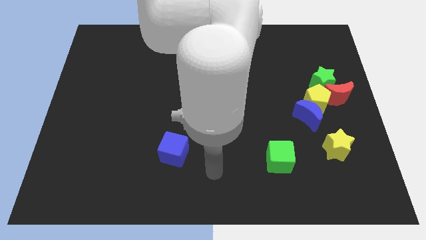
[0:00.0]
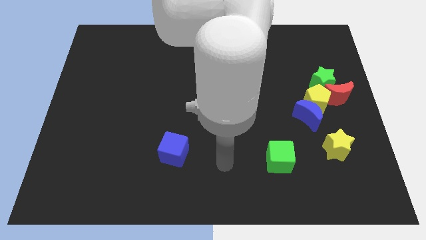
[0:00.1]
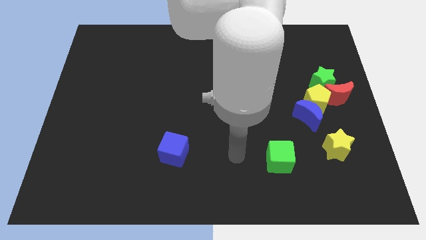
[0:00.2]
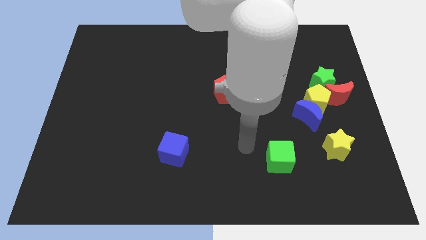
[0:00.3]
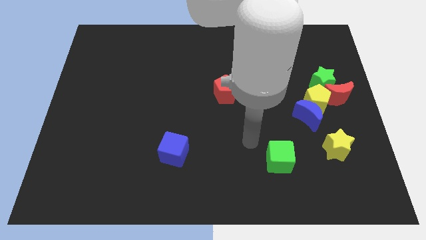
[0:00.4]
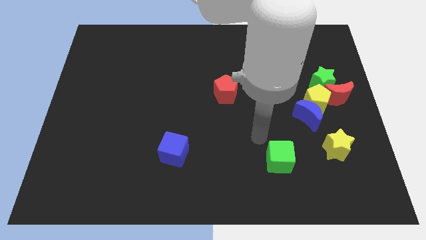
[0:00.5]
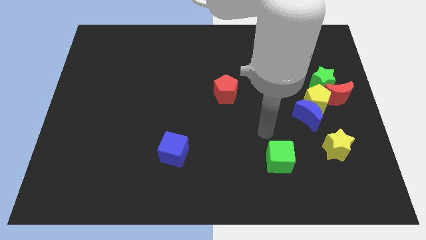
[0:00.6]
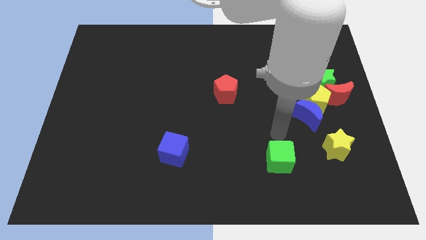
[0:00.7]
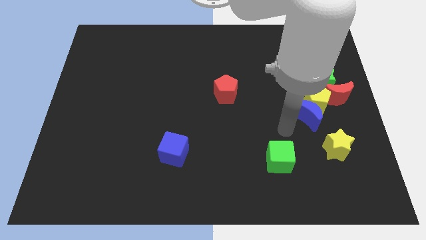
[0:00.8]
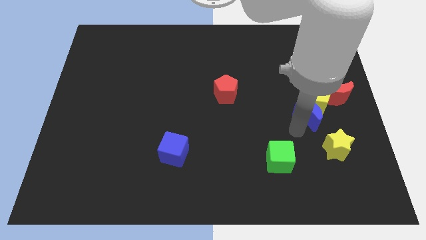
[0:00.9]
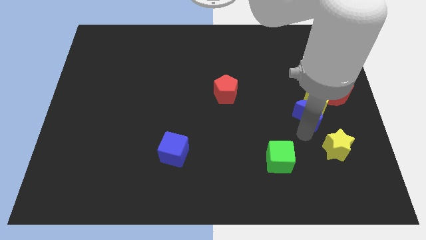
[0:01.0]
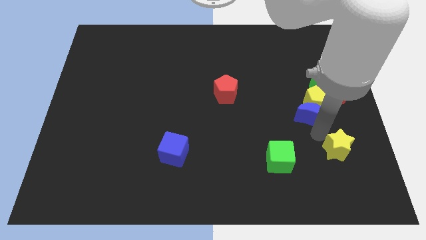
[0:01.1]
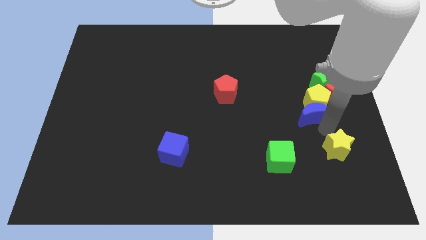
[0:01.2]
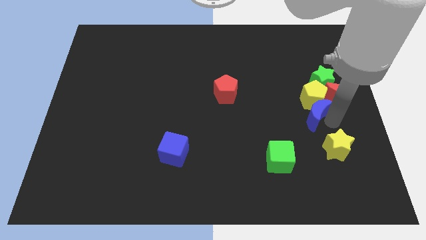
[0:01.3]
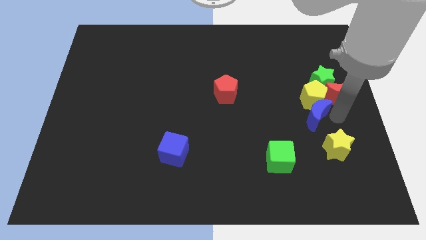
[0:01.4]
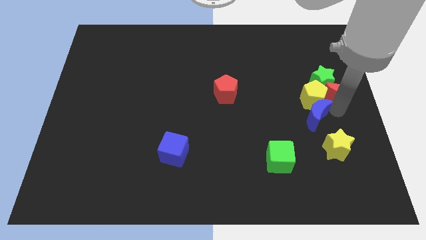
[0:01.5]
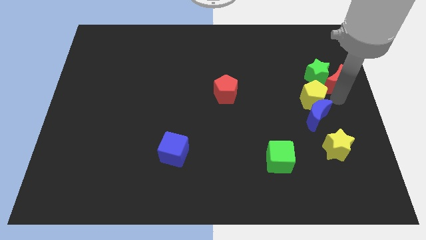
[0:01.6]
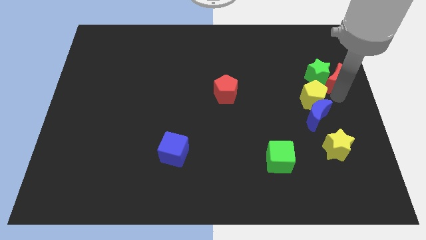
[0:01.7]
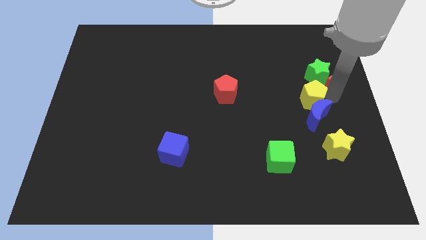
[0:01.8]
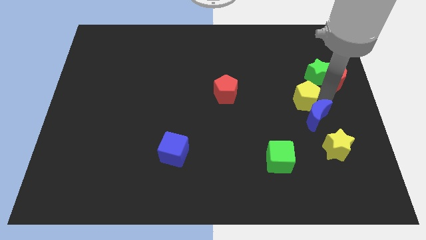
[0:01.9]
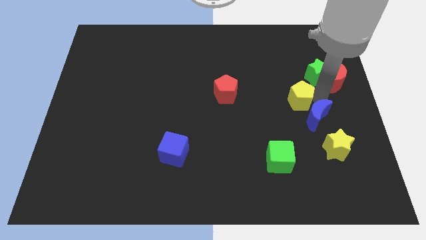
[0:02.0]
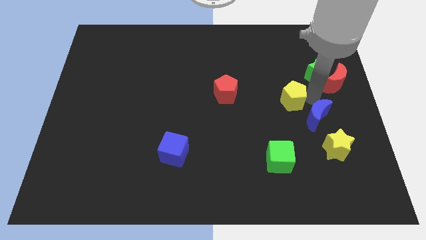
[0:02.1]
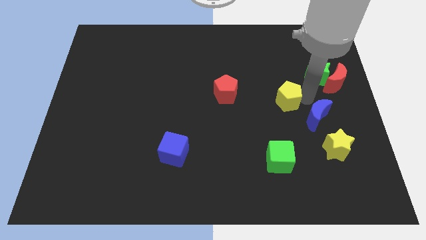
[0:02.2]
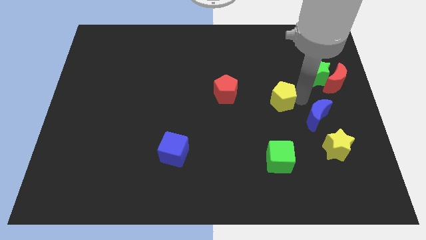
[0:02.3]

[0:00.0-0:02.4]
move the yellow pentagon away from the group

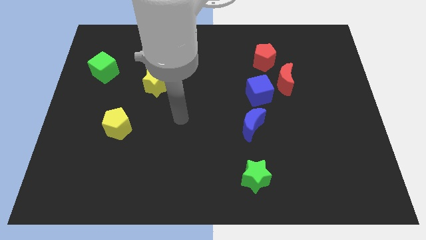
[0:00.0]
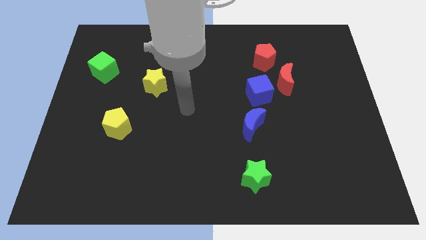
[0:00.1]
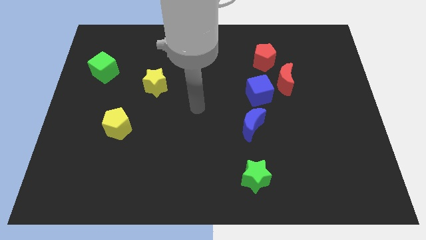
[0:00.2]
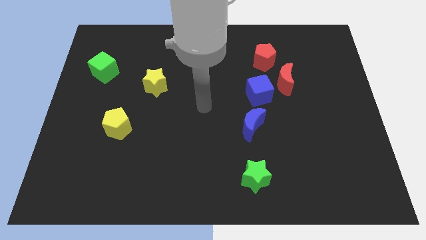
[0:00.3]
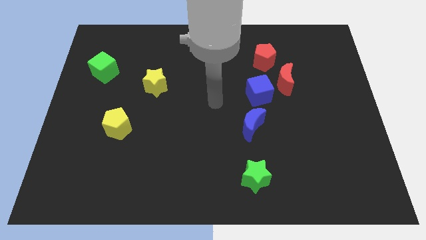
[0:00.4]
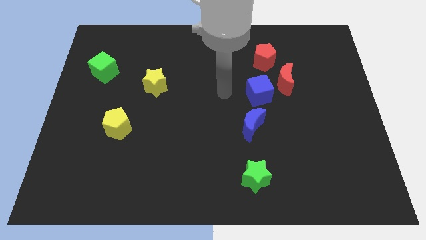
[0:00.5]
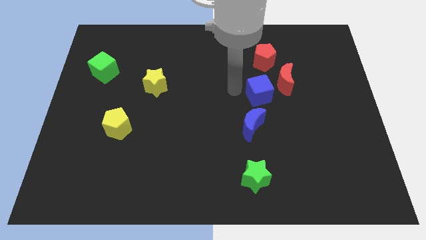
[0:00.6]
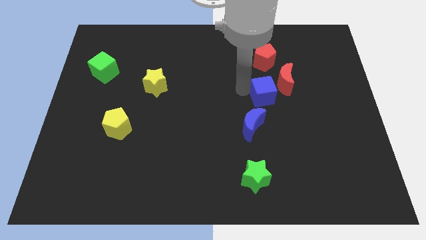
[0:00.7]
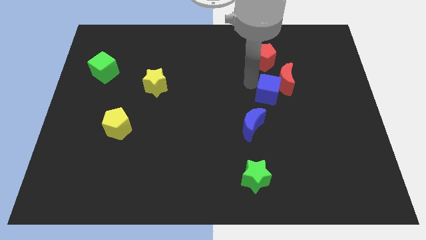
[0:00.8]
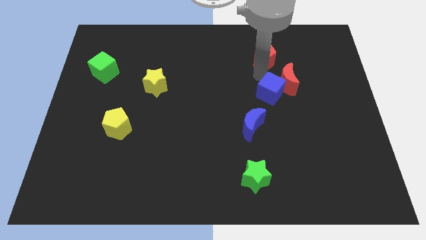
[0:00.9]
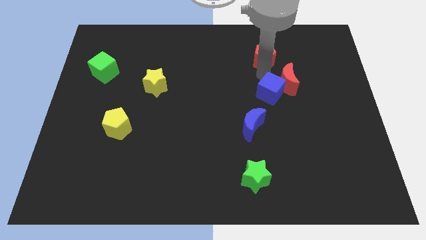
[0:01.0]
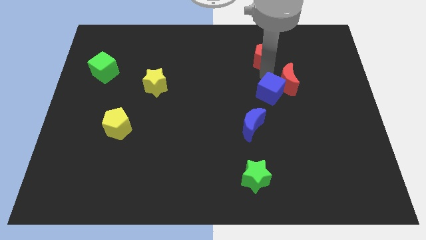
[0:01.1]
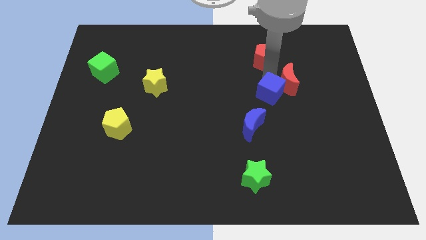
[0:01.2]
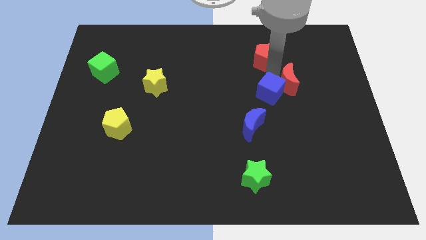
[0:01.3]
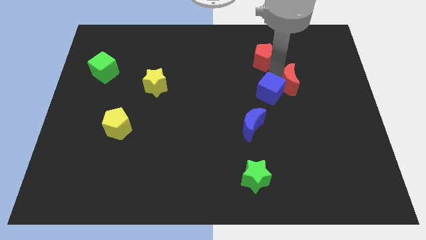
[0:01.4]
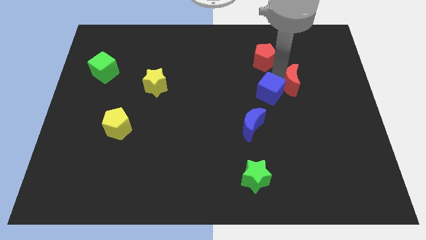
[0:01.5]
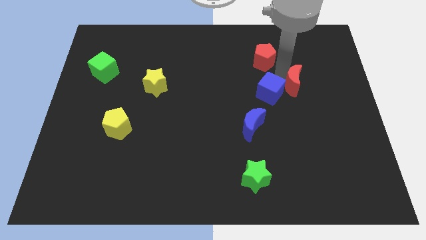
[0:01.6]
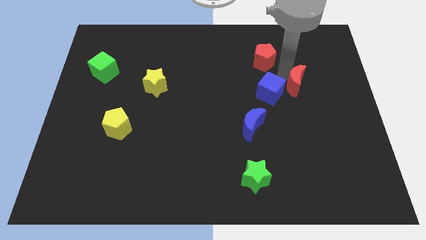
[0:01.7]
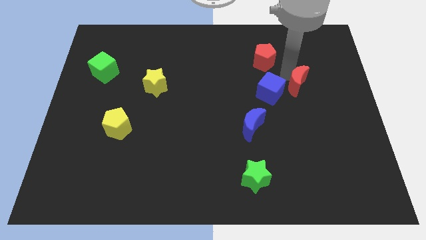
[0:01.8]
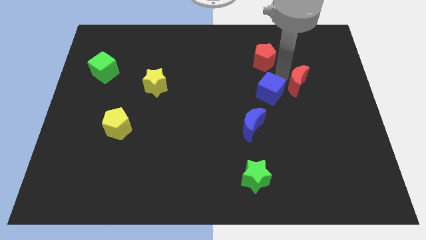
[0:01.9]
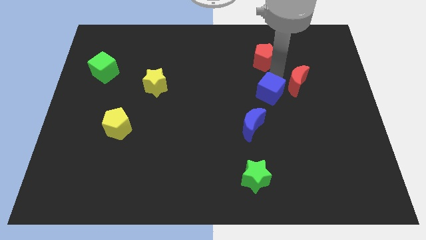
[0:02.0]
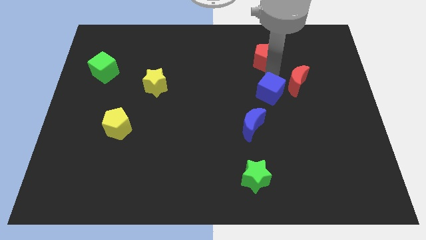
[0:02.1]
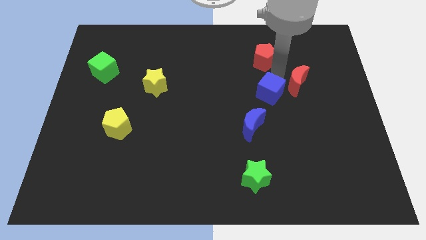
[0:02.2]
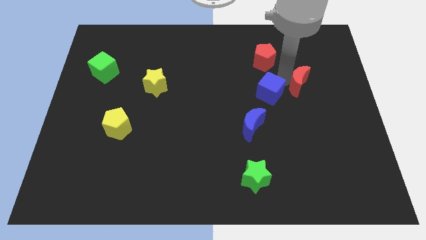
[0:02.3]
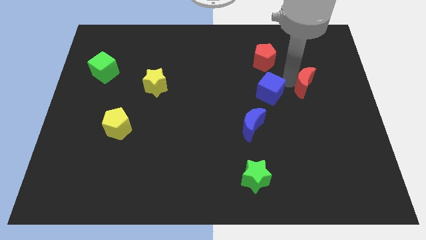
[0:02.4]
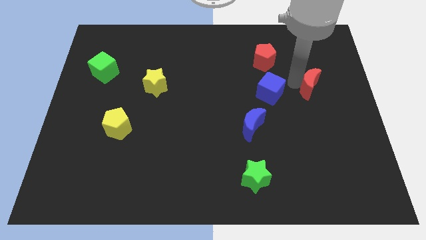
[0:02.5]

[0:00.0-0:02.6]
move the red moon away from the blue cube and red pentagon

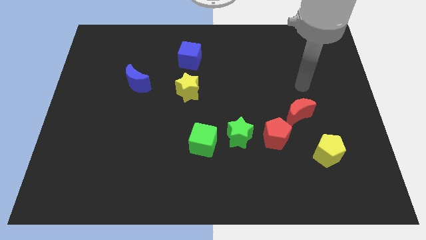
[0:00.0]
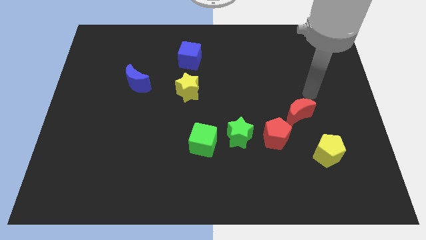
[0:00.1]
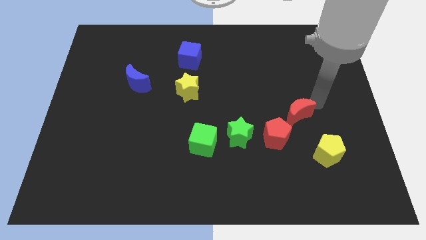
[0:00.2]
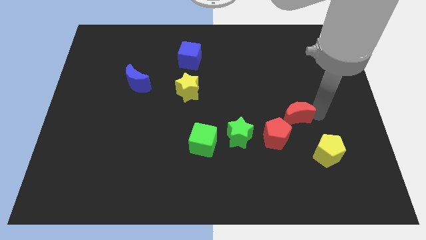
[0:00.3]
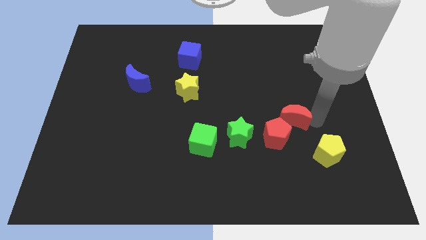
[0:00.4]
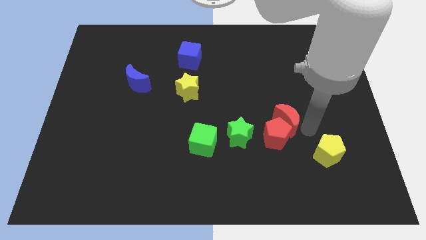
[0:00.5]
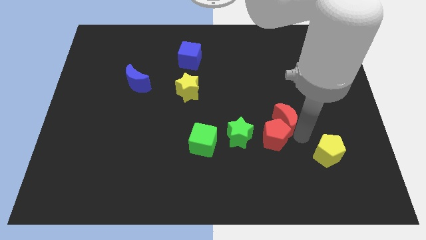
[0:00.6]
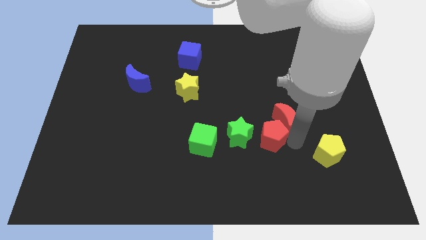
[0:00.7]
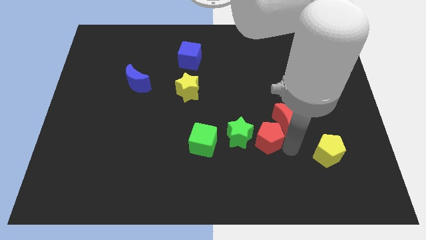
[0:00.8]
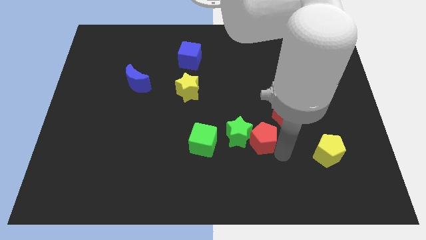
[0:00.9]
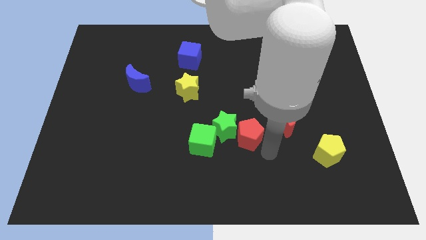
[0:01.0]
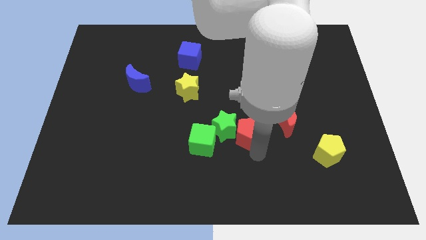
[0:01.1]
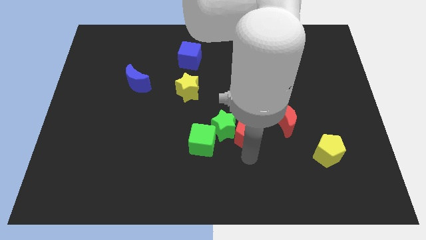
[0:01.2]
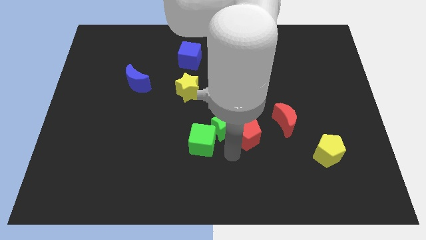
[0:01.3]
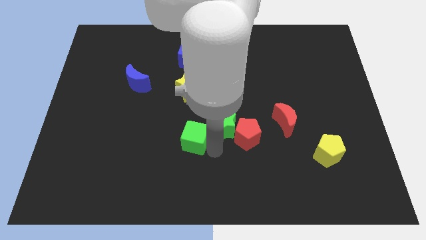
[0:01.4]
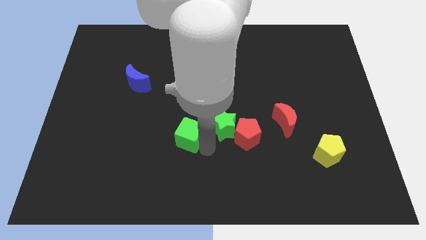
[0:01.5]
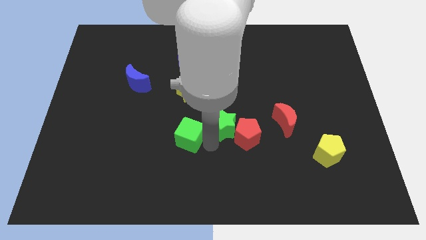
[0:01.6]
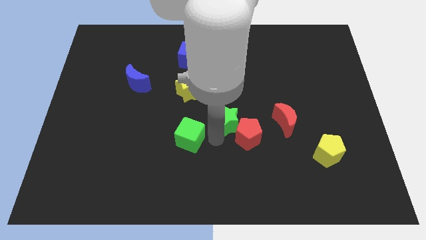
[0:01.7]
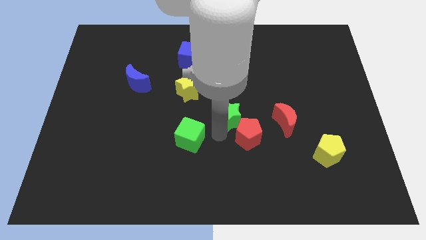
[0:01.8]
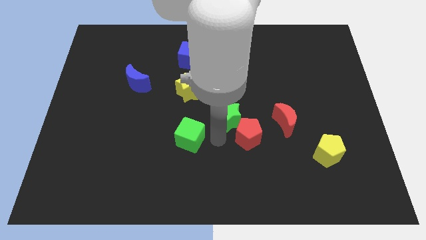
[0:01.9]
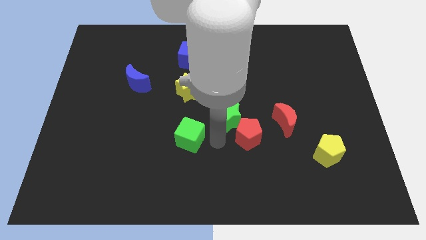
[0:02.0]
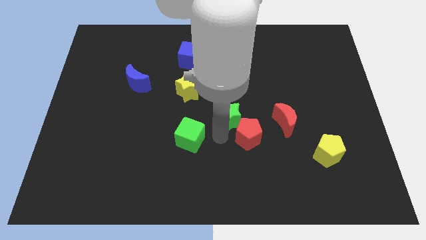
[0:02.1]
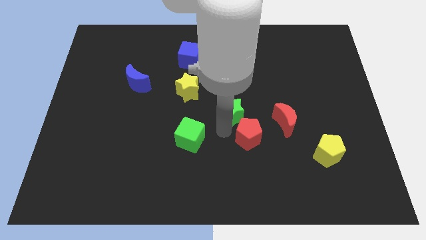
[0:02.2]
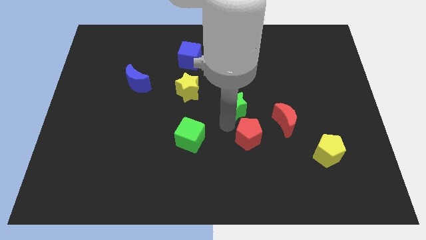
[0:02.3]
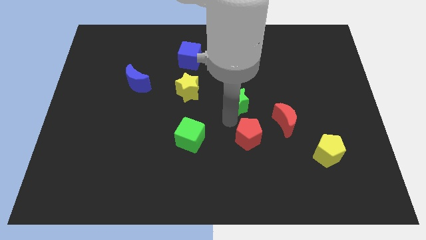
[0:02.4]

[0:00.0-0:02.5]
pull the green star apart from the red pentagon and green cube

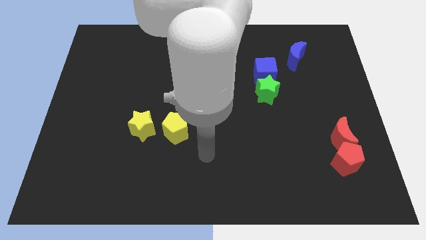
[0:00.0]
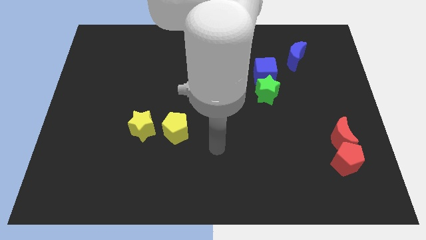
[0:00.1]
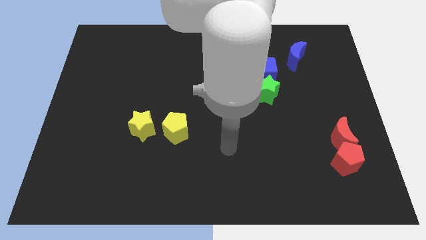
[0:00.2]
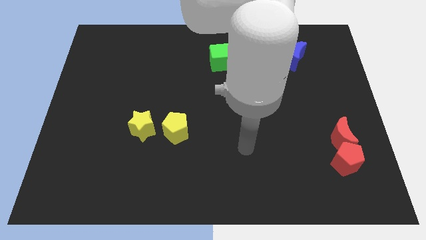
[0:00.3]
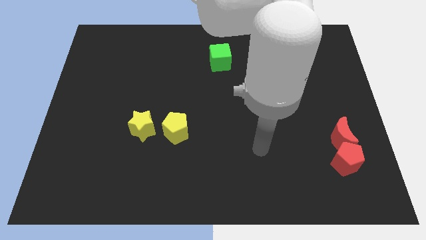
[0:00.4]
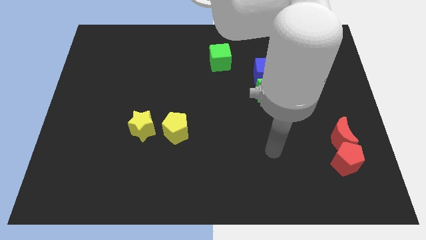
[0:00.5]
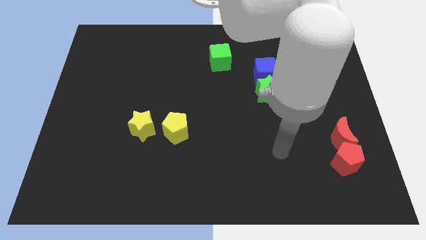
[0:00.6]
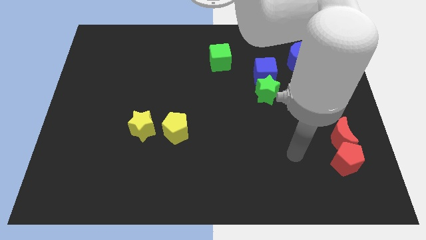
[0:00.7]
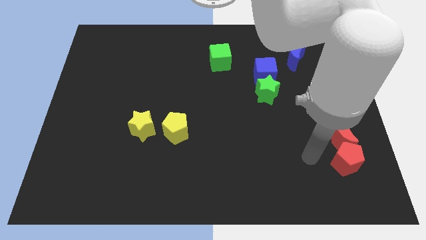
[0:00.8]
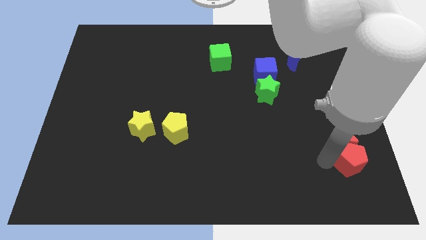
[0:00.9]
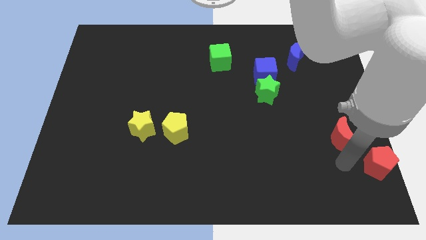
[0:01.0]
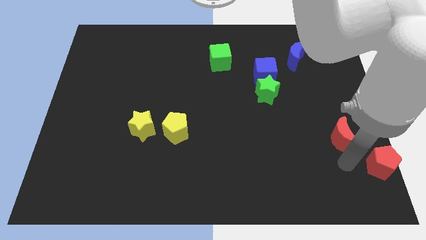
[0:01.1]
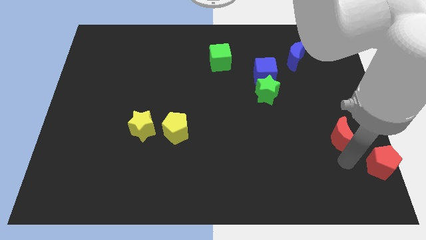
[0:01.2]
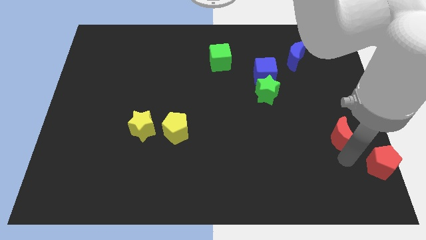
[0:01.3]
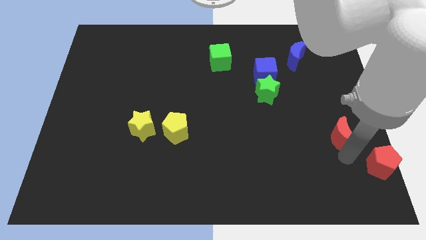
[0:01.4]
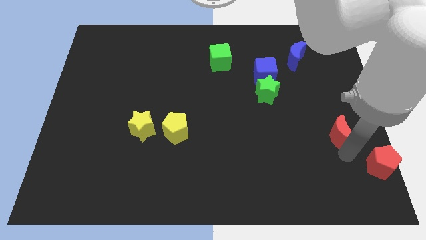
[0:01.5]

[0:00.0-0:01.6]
separate the red moon from the red pentagon

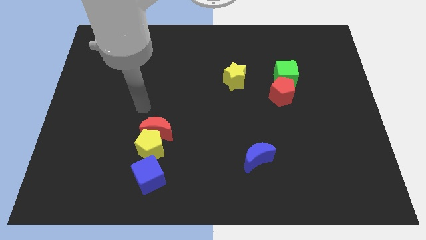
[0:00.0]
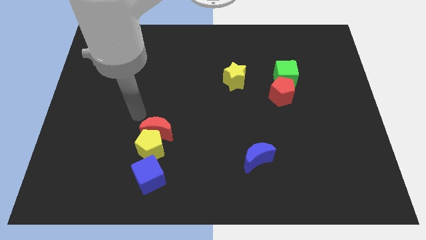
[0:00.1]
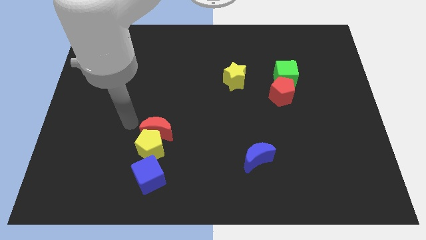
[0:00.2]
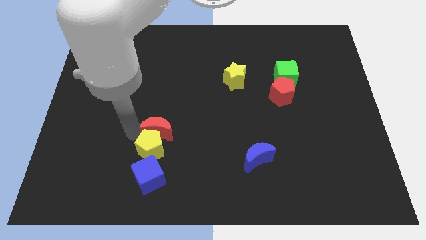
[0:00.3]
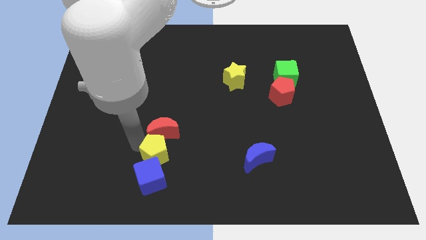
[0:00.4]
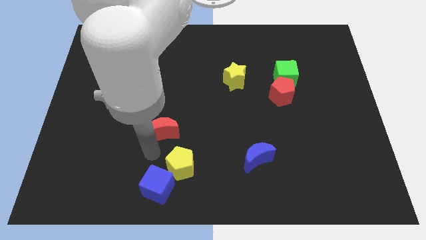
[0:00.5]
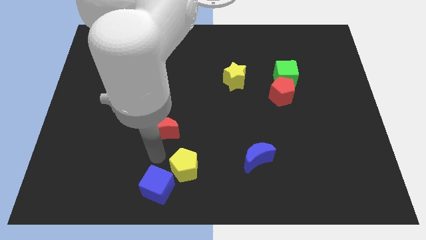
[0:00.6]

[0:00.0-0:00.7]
move the red moon away from the yellow pentagon
